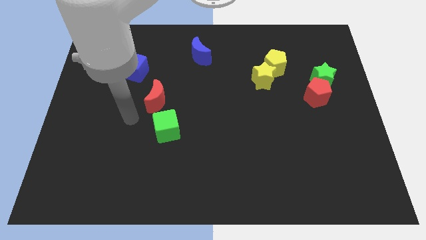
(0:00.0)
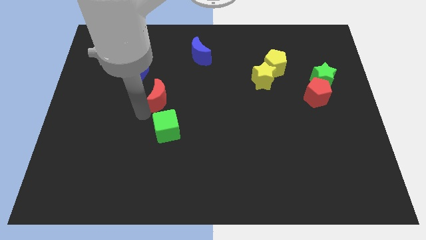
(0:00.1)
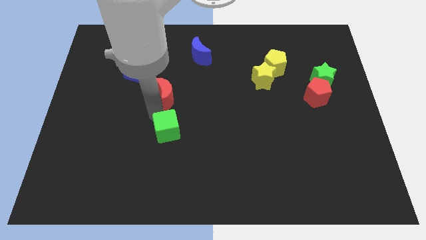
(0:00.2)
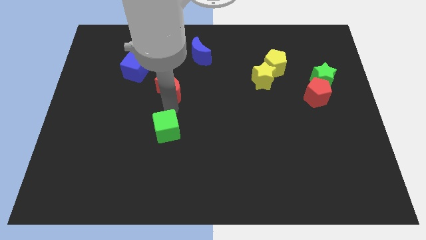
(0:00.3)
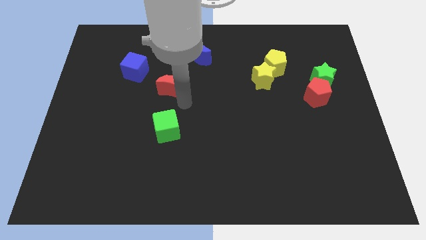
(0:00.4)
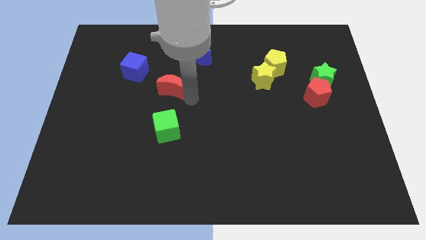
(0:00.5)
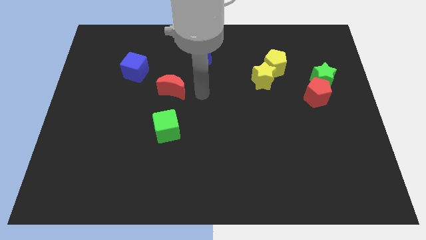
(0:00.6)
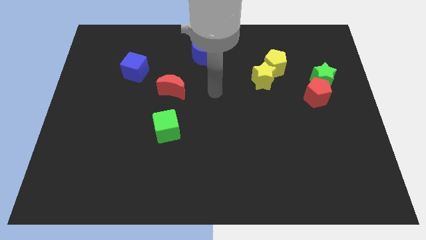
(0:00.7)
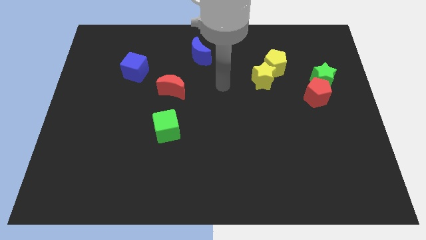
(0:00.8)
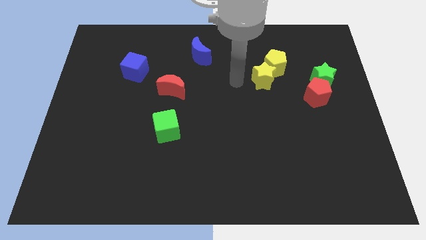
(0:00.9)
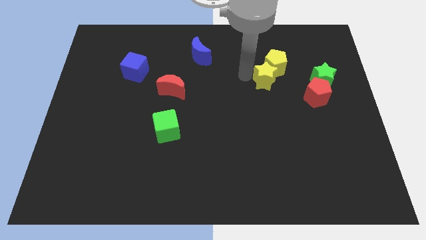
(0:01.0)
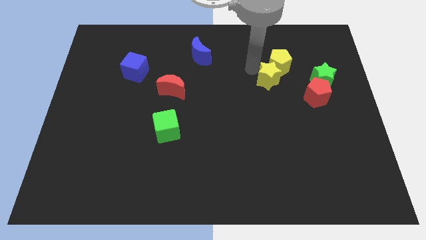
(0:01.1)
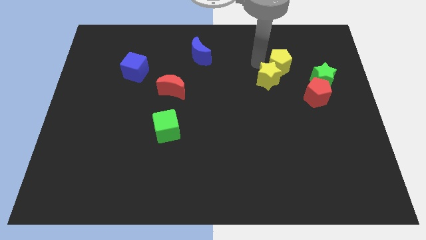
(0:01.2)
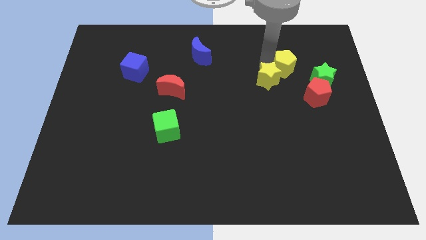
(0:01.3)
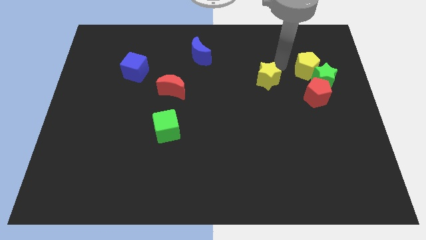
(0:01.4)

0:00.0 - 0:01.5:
pull the yellow star apart from the yellow pentagon

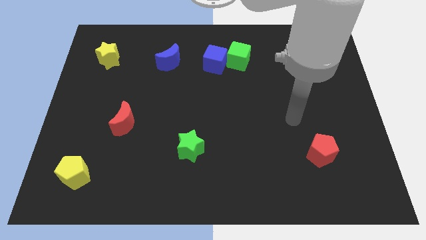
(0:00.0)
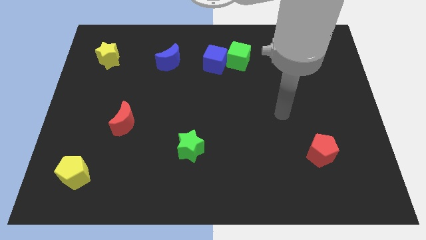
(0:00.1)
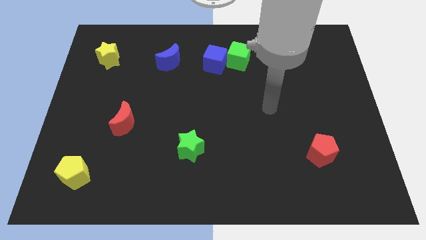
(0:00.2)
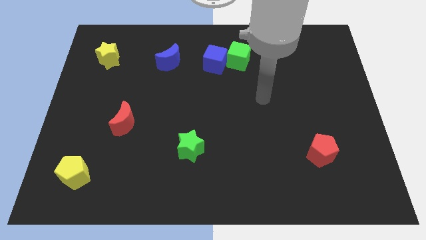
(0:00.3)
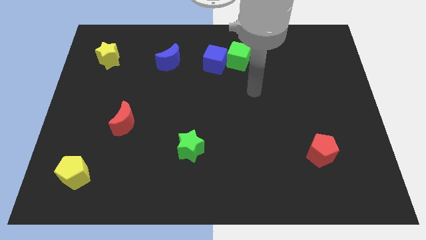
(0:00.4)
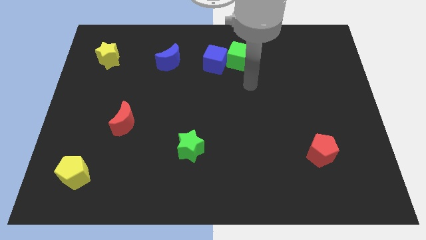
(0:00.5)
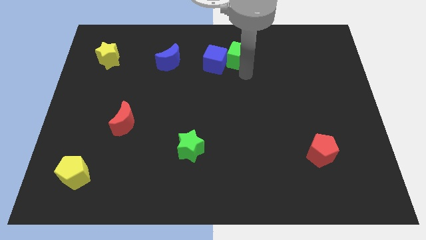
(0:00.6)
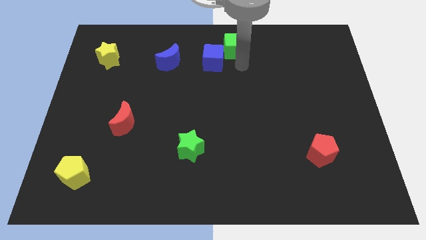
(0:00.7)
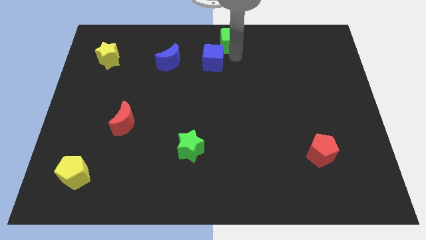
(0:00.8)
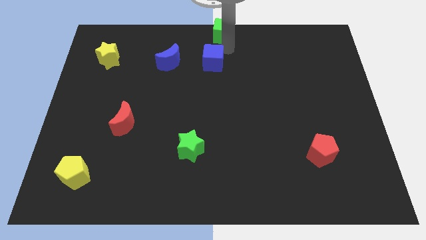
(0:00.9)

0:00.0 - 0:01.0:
separate the blue cube from the green cube

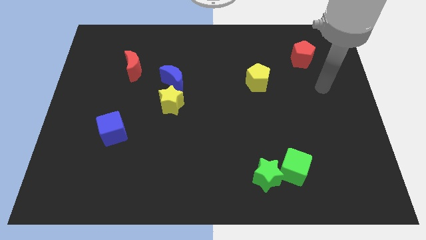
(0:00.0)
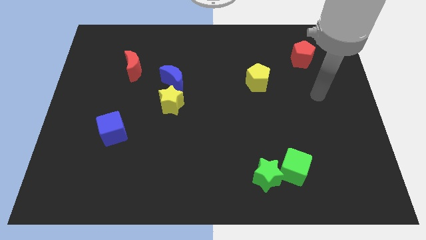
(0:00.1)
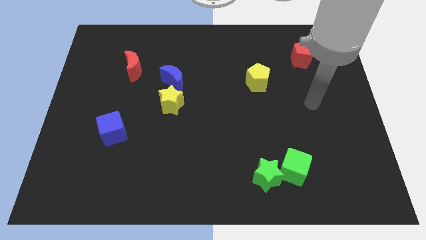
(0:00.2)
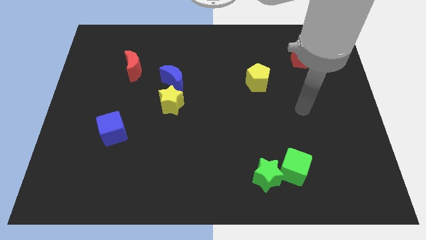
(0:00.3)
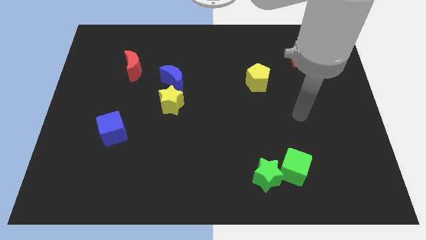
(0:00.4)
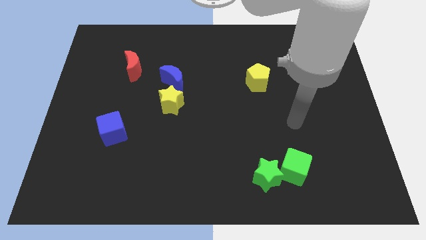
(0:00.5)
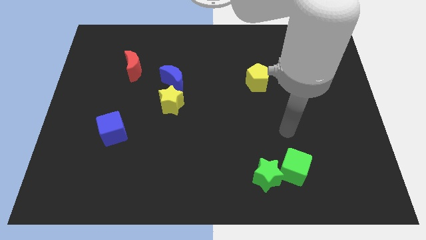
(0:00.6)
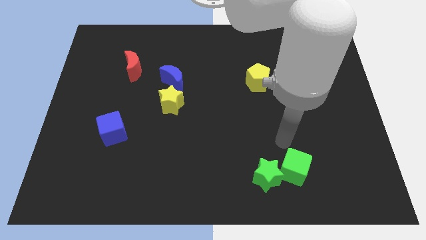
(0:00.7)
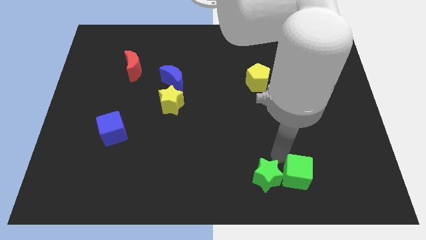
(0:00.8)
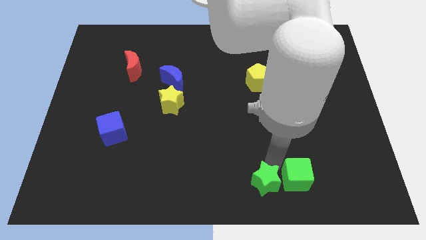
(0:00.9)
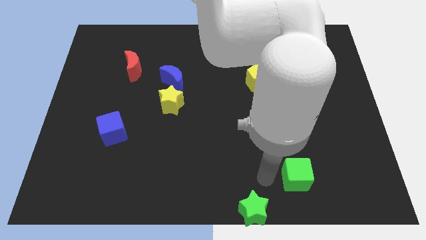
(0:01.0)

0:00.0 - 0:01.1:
move the green cube away from the green star

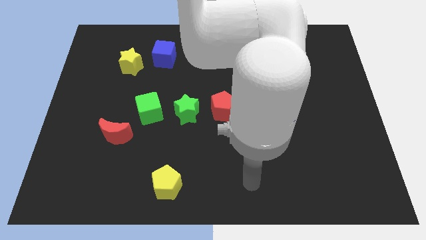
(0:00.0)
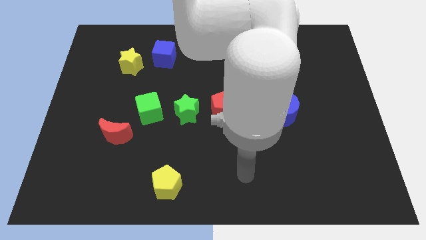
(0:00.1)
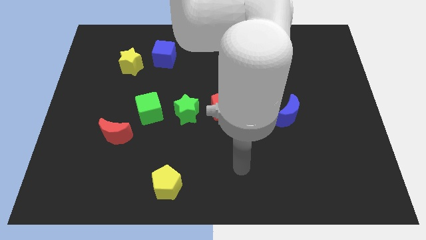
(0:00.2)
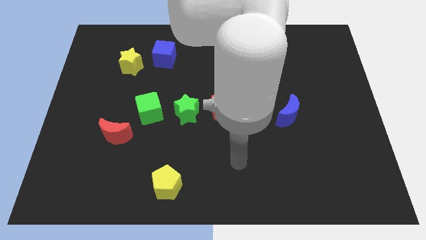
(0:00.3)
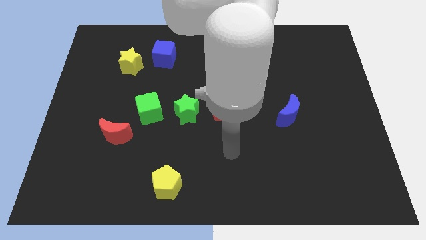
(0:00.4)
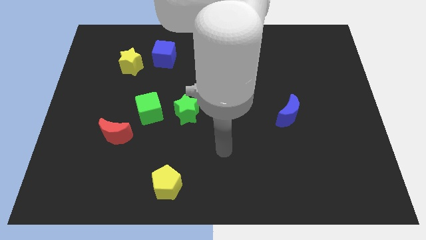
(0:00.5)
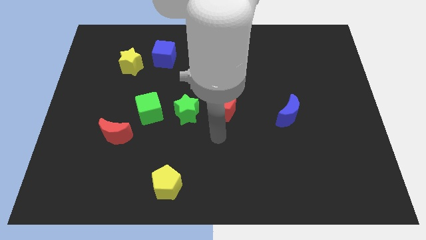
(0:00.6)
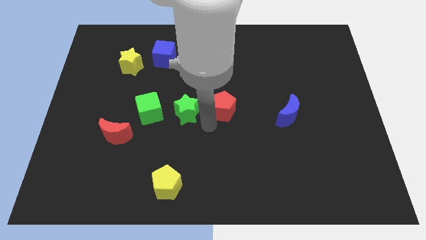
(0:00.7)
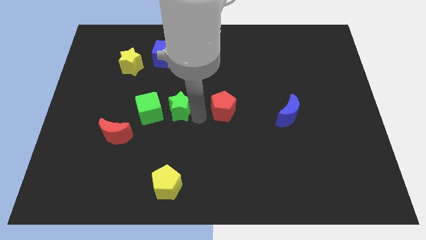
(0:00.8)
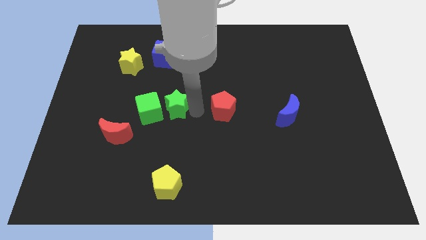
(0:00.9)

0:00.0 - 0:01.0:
pull the red pentagon apart from the green star

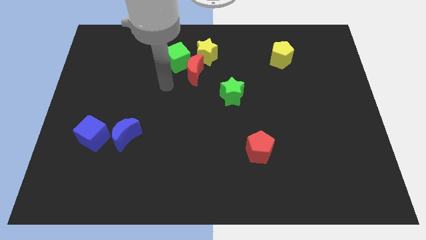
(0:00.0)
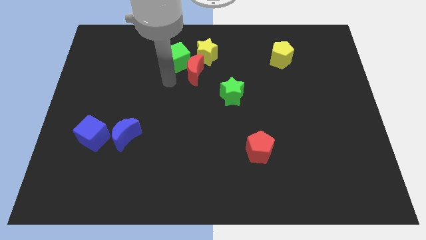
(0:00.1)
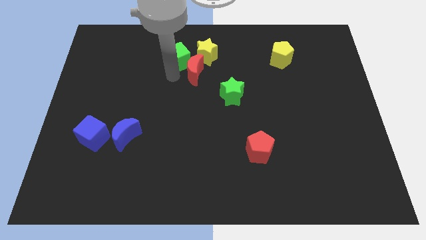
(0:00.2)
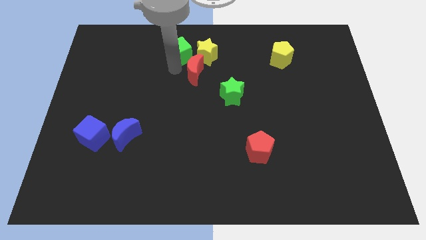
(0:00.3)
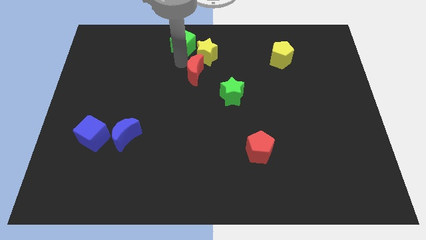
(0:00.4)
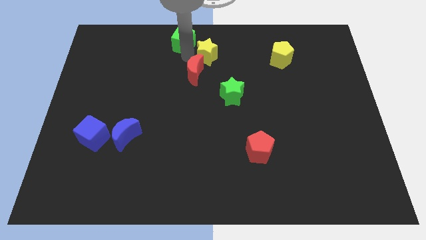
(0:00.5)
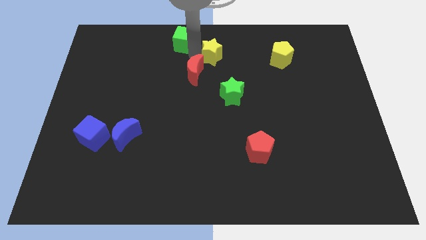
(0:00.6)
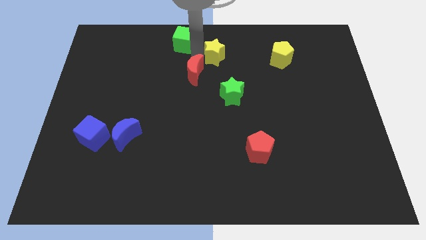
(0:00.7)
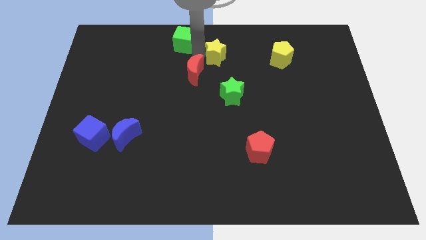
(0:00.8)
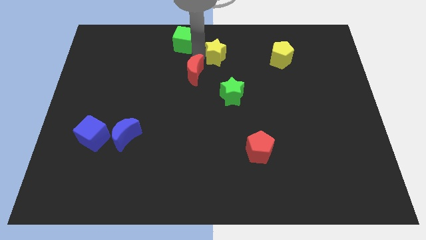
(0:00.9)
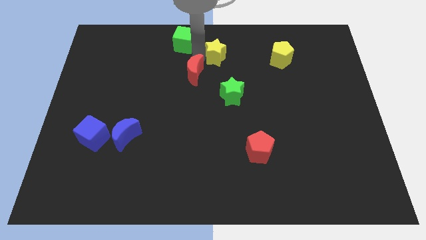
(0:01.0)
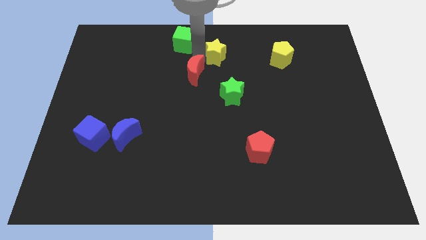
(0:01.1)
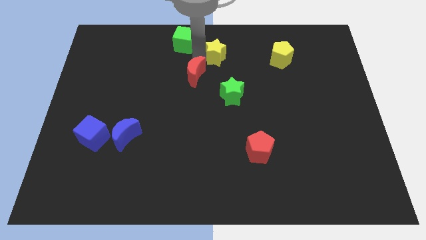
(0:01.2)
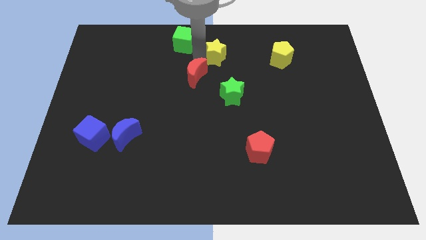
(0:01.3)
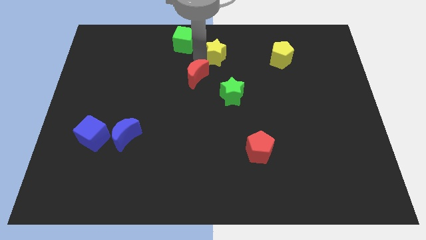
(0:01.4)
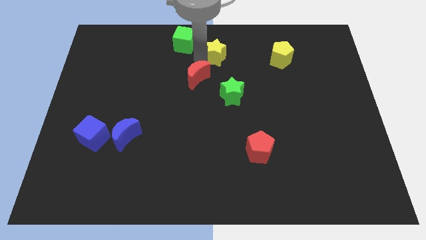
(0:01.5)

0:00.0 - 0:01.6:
pull the red moon apart from the green cube and yellow star

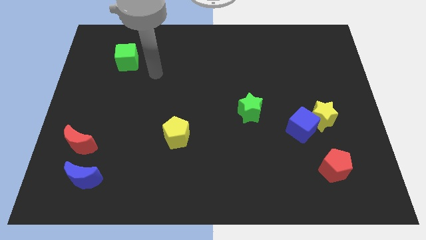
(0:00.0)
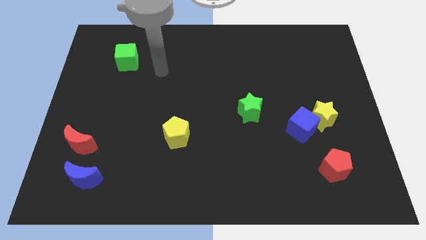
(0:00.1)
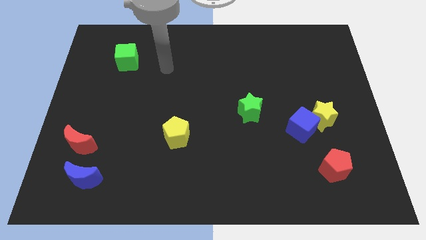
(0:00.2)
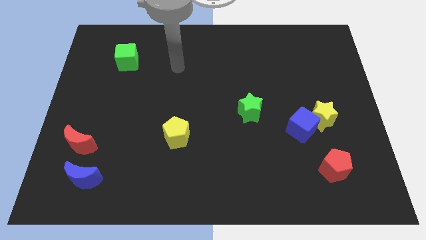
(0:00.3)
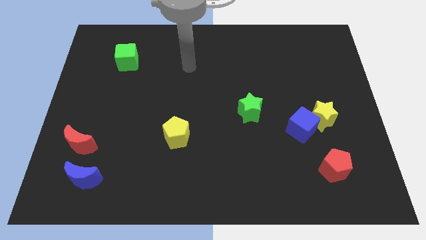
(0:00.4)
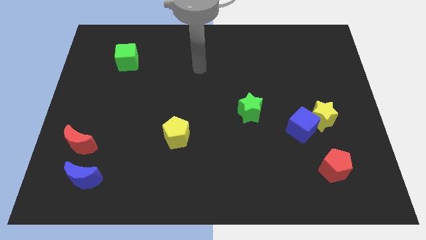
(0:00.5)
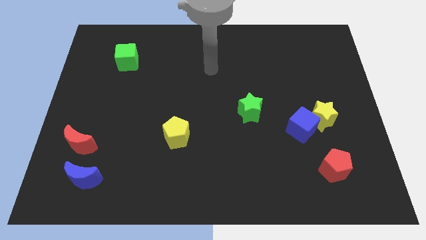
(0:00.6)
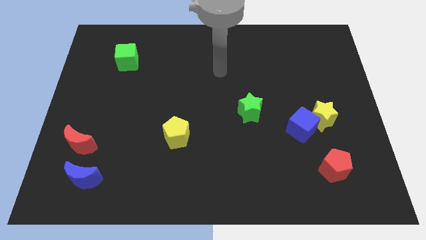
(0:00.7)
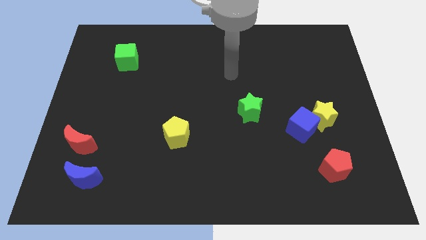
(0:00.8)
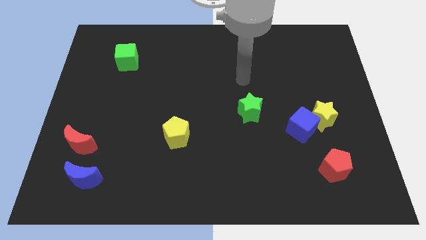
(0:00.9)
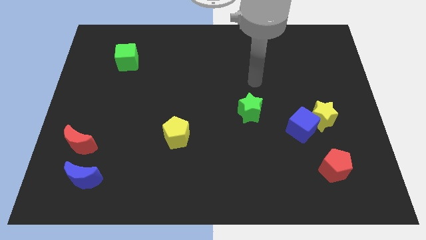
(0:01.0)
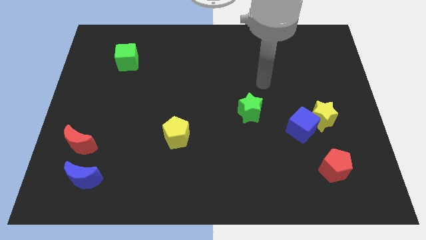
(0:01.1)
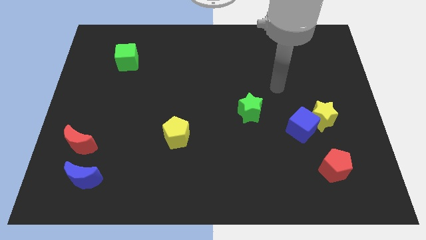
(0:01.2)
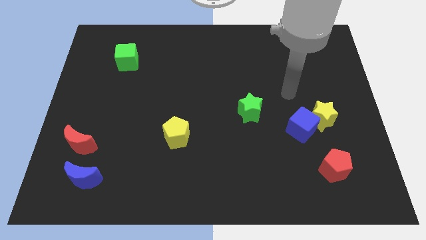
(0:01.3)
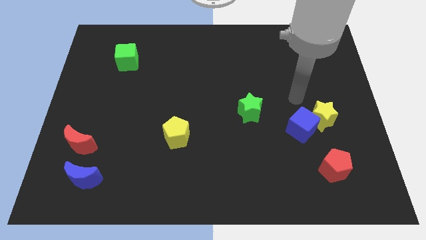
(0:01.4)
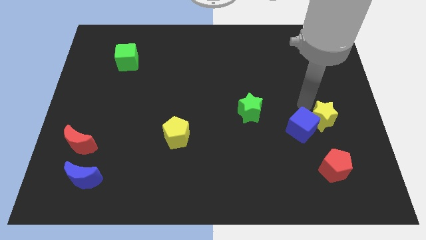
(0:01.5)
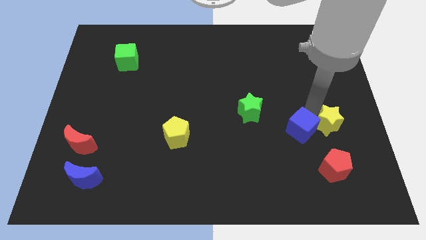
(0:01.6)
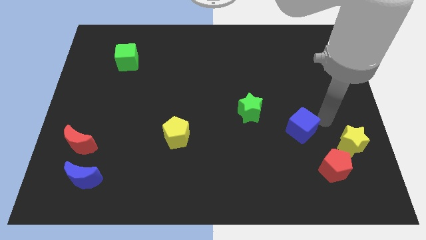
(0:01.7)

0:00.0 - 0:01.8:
pull the blue cube apart from the yellow star

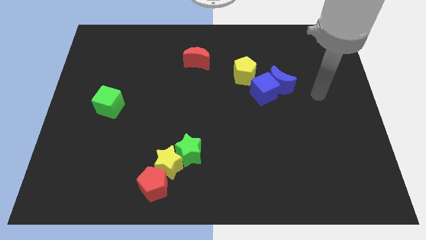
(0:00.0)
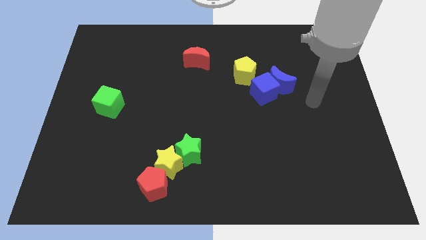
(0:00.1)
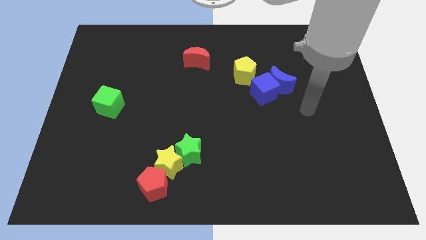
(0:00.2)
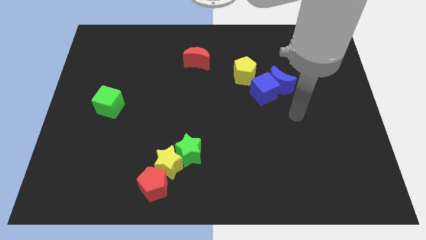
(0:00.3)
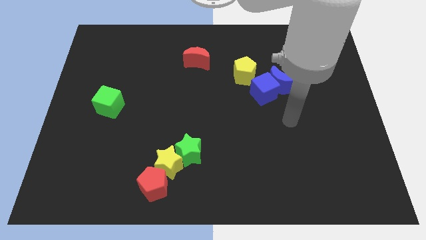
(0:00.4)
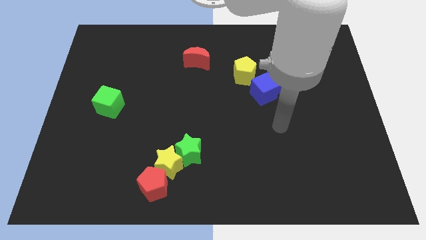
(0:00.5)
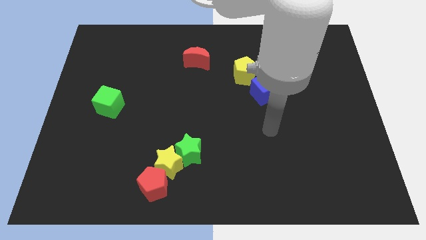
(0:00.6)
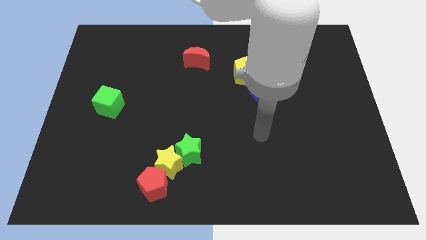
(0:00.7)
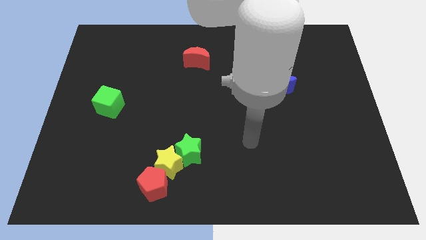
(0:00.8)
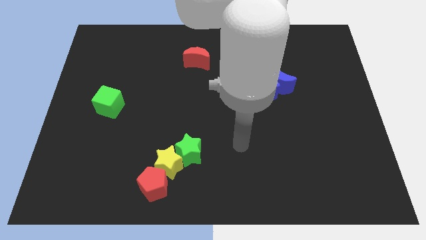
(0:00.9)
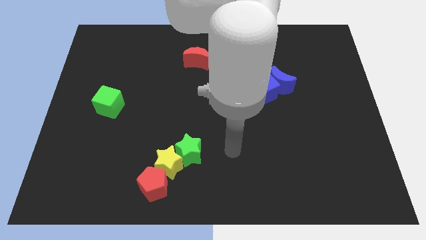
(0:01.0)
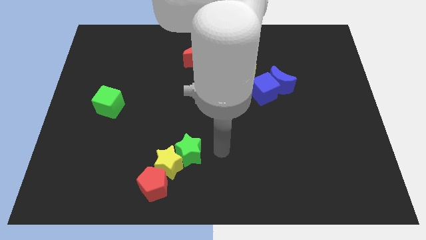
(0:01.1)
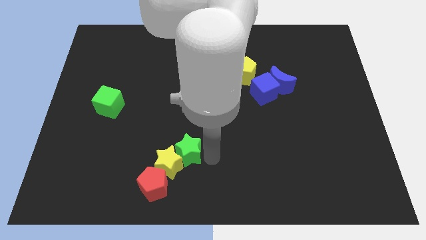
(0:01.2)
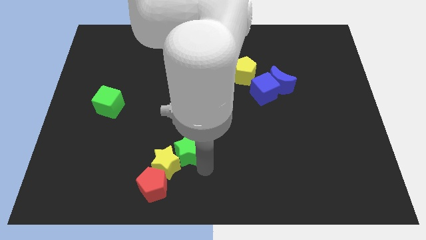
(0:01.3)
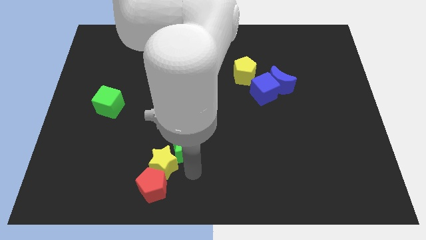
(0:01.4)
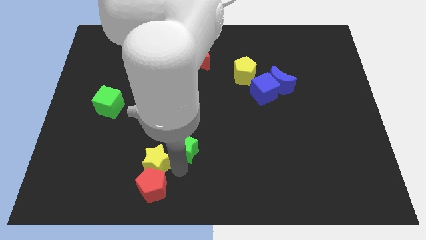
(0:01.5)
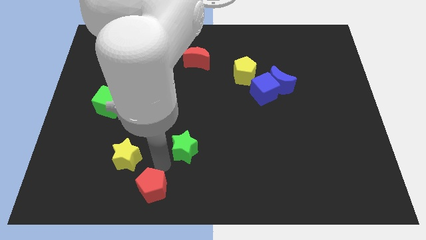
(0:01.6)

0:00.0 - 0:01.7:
move the green star away from the yellow star
